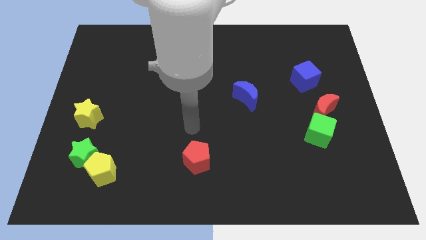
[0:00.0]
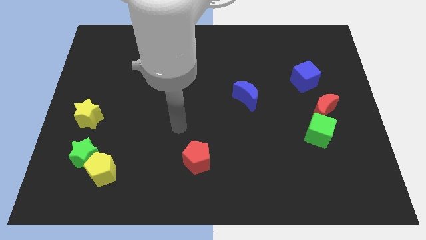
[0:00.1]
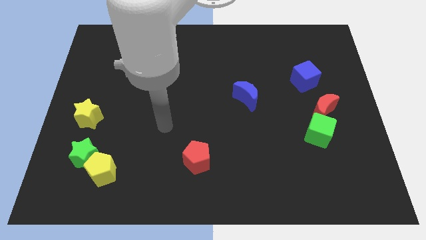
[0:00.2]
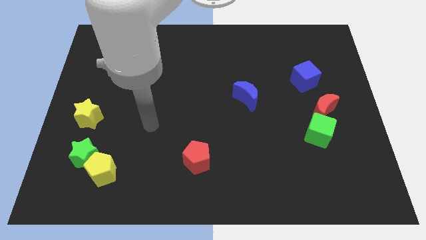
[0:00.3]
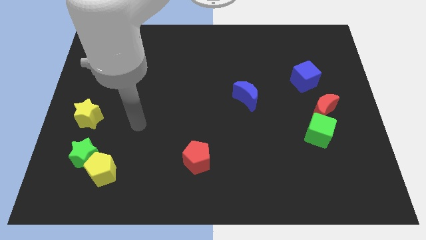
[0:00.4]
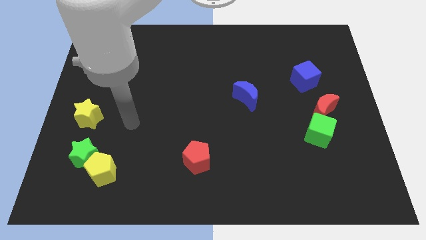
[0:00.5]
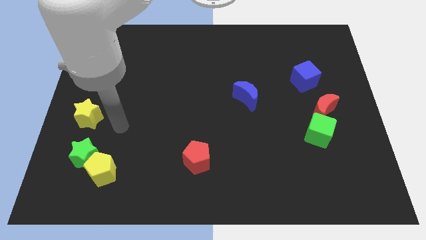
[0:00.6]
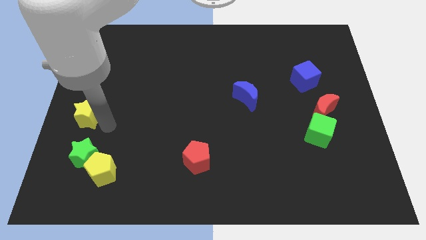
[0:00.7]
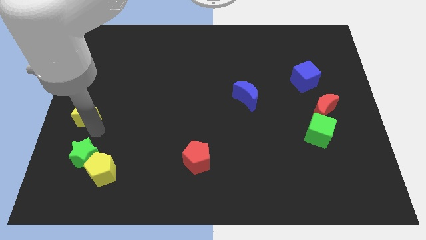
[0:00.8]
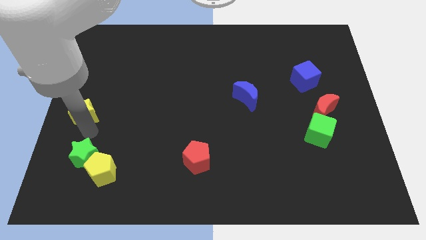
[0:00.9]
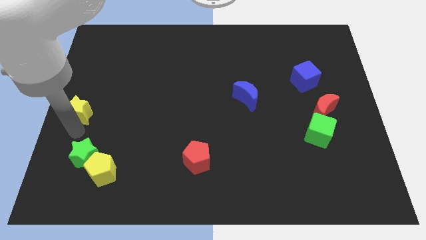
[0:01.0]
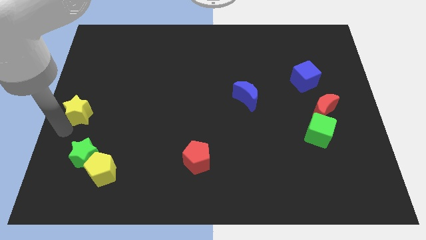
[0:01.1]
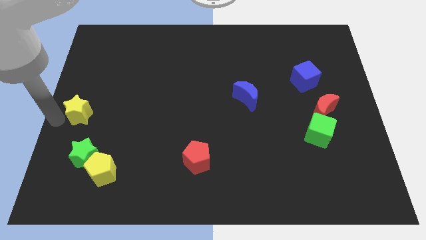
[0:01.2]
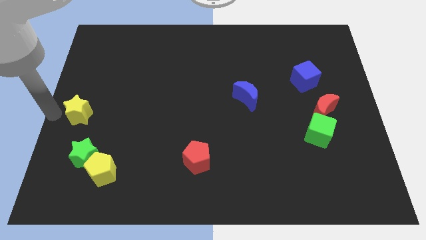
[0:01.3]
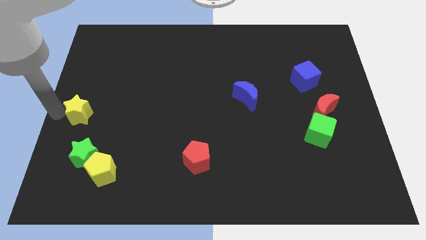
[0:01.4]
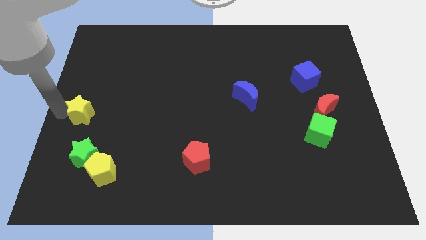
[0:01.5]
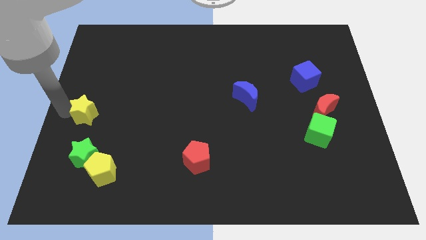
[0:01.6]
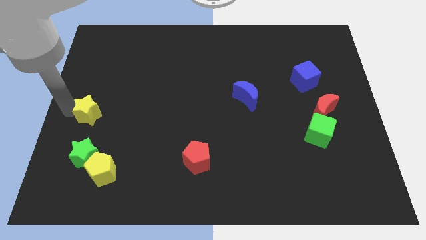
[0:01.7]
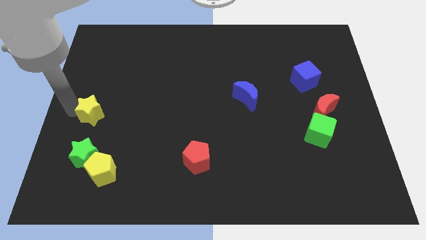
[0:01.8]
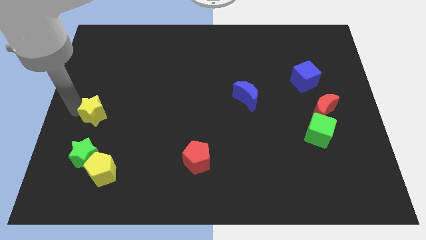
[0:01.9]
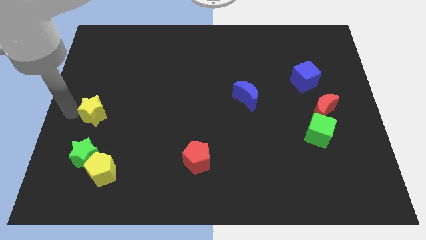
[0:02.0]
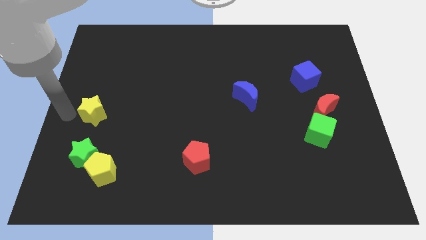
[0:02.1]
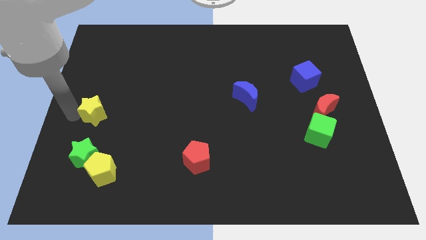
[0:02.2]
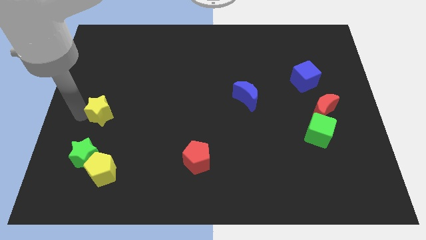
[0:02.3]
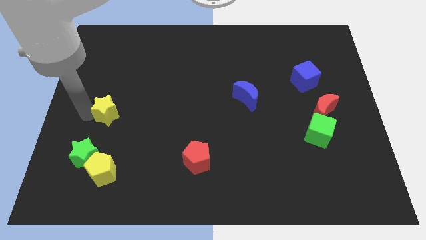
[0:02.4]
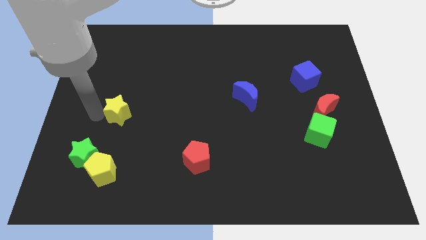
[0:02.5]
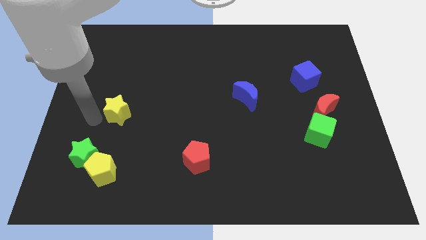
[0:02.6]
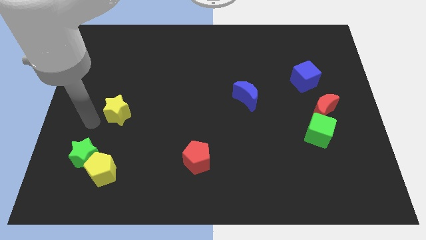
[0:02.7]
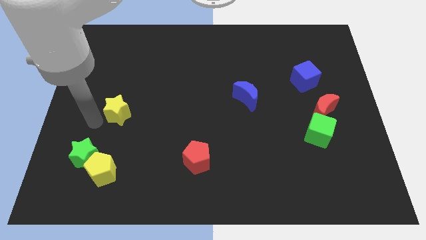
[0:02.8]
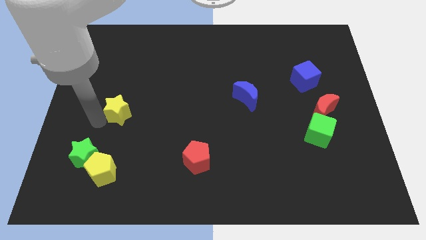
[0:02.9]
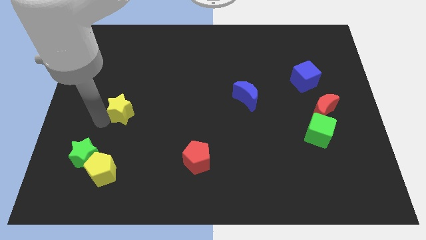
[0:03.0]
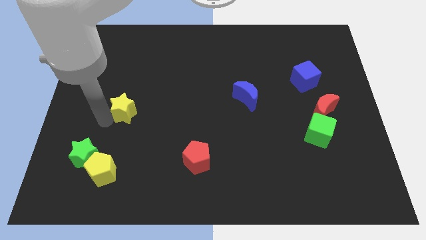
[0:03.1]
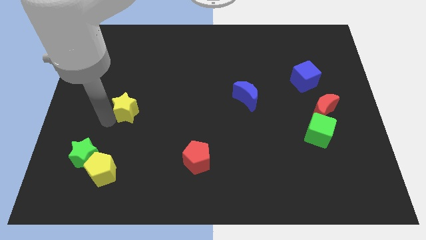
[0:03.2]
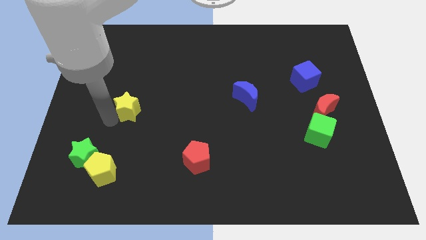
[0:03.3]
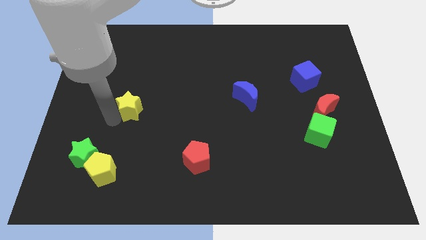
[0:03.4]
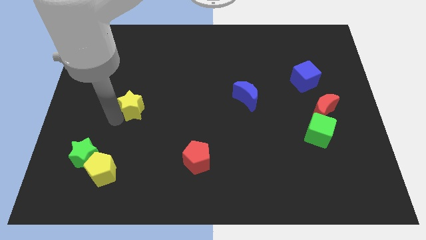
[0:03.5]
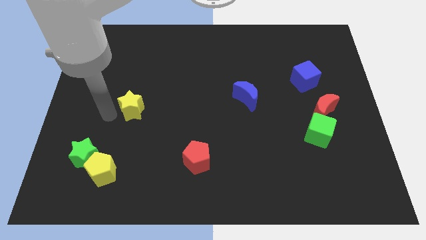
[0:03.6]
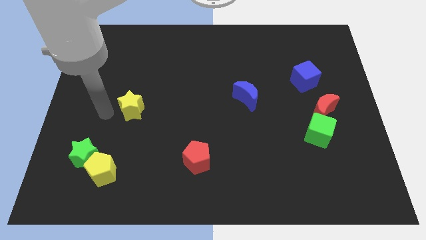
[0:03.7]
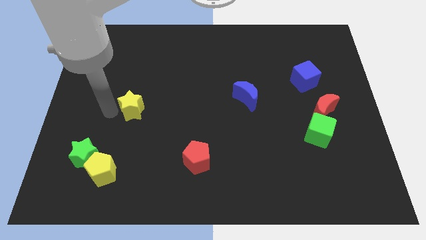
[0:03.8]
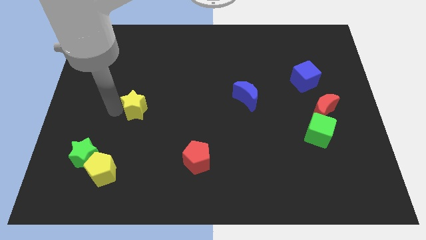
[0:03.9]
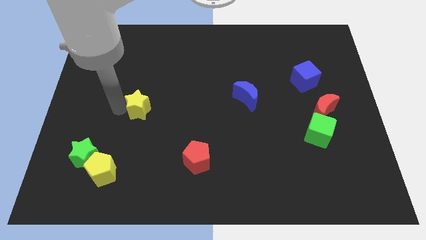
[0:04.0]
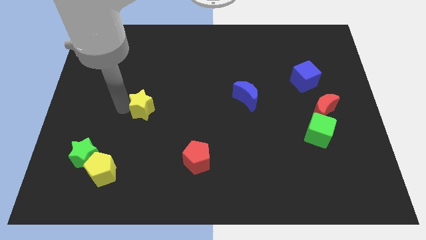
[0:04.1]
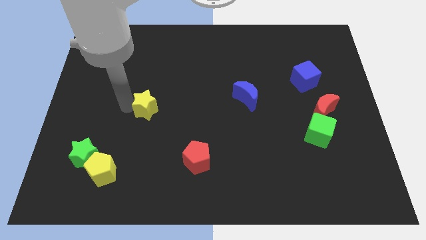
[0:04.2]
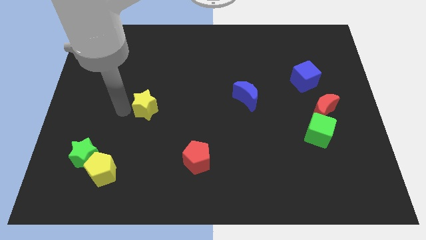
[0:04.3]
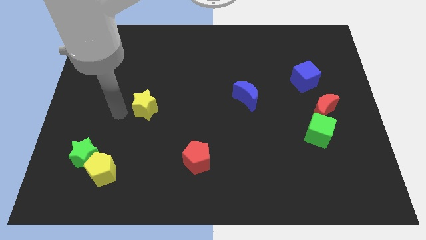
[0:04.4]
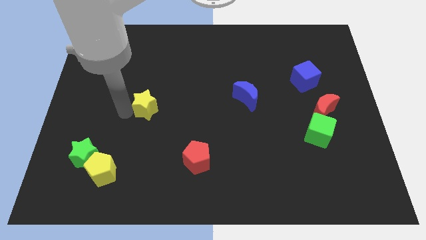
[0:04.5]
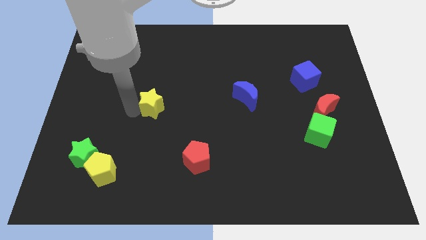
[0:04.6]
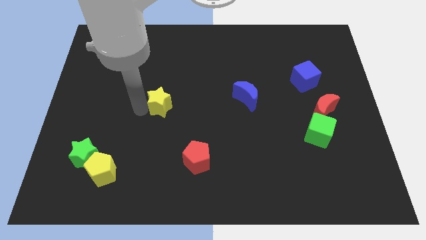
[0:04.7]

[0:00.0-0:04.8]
push the yellow star to the middle of the board

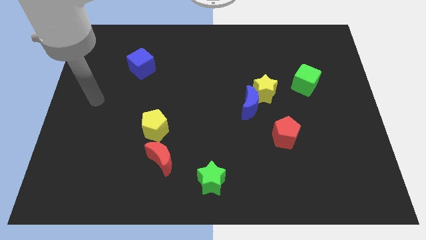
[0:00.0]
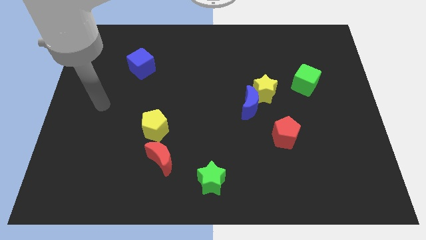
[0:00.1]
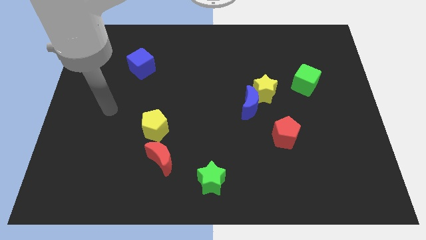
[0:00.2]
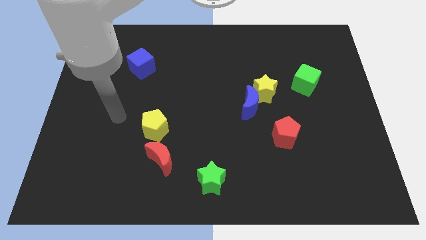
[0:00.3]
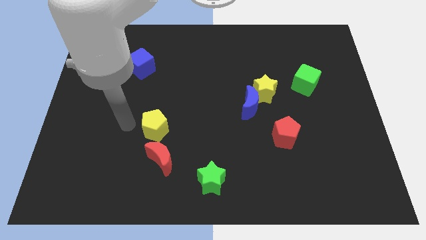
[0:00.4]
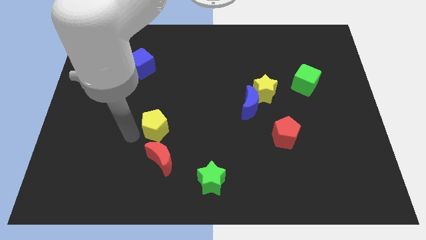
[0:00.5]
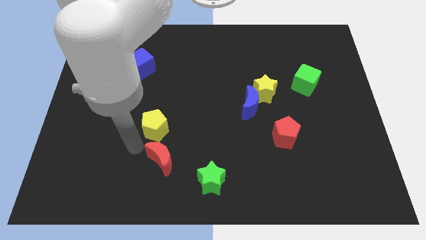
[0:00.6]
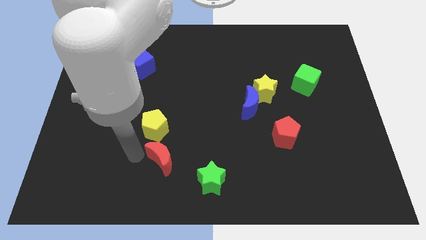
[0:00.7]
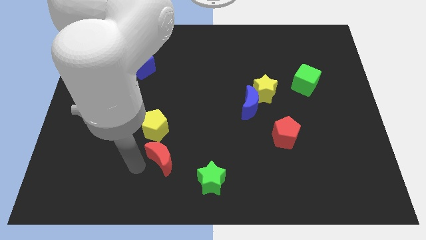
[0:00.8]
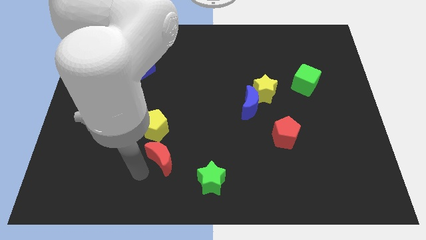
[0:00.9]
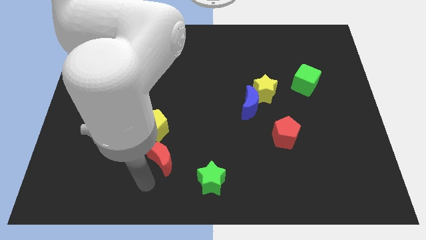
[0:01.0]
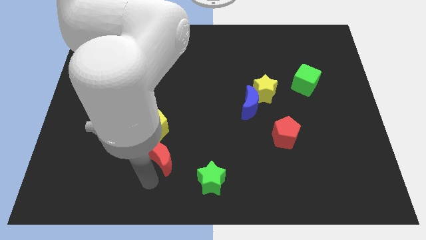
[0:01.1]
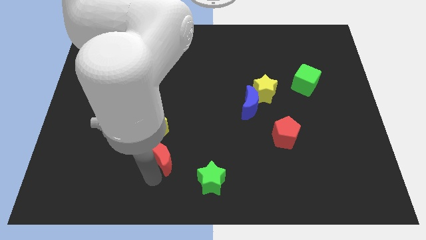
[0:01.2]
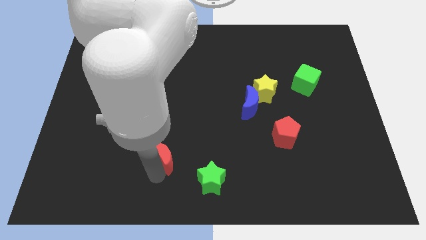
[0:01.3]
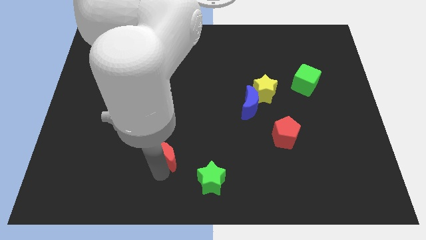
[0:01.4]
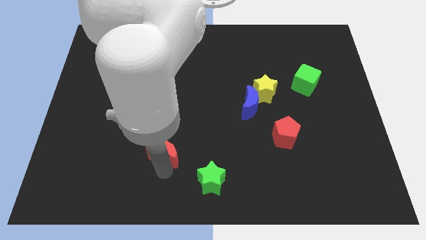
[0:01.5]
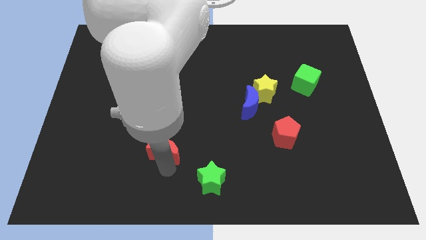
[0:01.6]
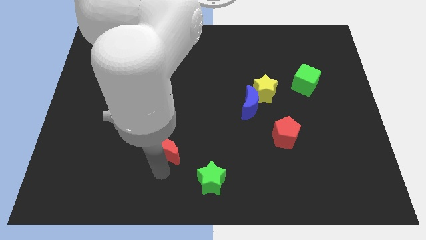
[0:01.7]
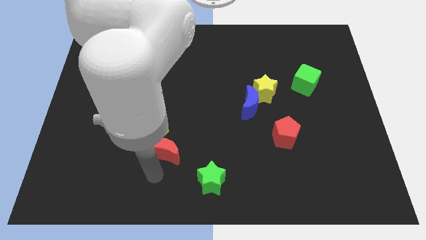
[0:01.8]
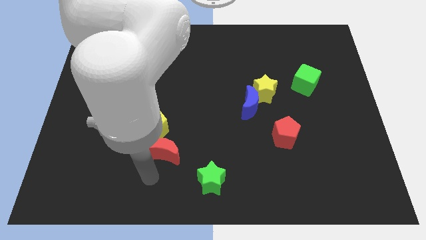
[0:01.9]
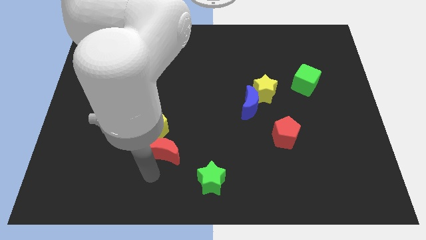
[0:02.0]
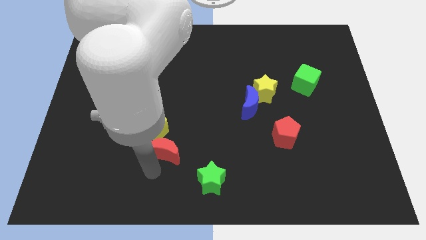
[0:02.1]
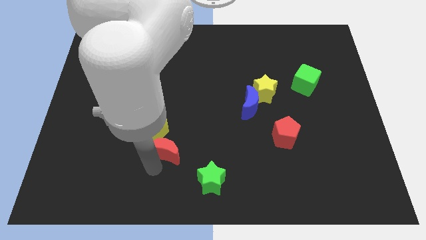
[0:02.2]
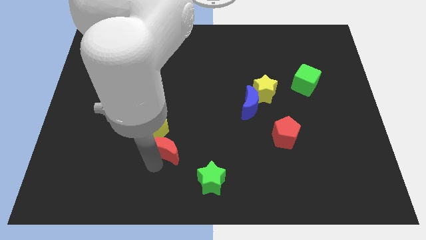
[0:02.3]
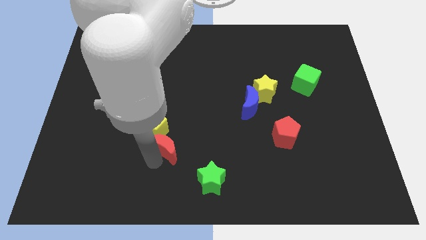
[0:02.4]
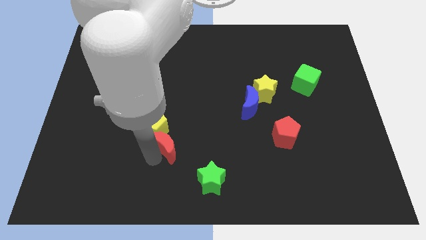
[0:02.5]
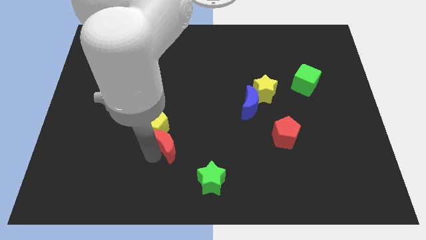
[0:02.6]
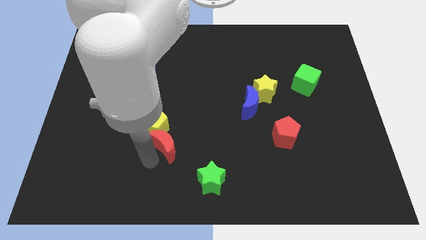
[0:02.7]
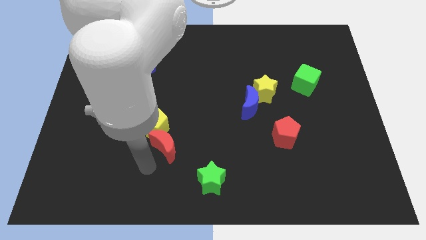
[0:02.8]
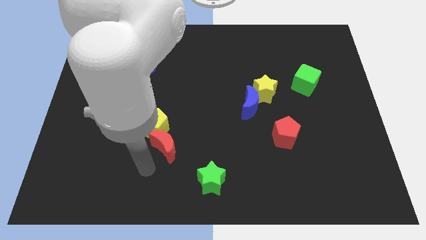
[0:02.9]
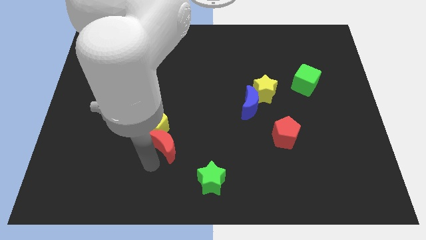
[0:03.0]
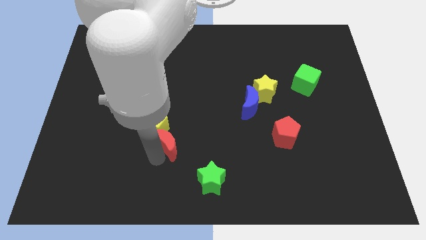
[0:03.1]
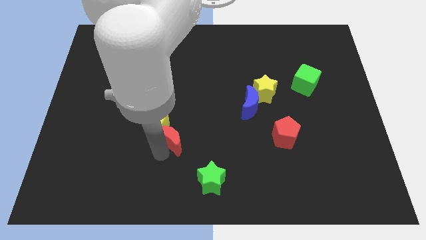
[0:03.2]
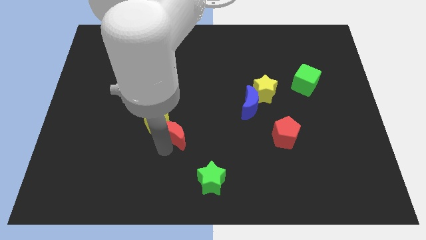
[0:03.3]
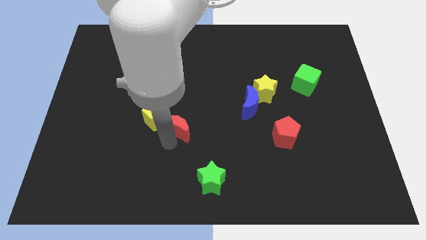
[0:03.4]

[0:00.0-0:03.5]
push the red moon to the middle
